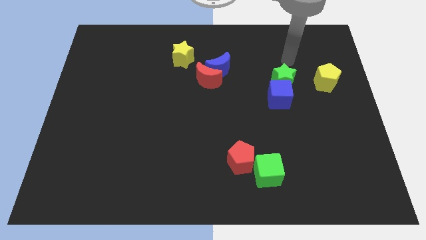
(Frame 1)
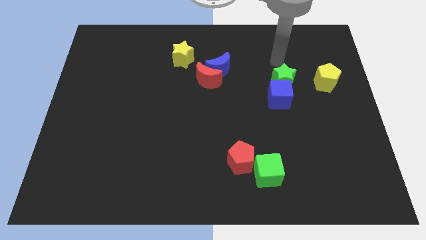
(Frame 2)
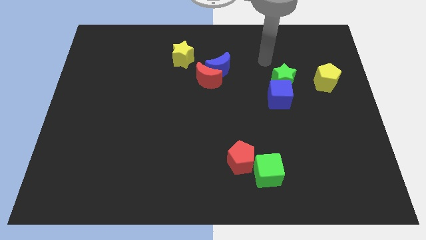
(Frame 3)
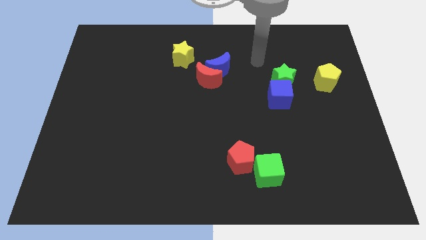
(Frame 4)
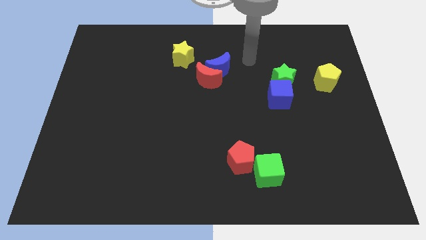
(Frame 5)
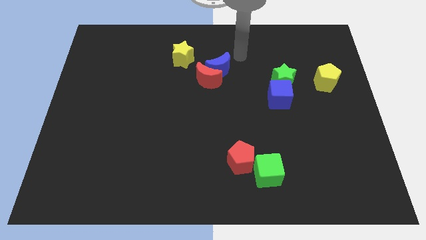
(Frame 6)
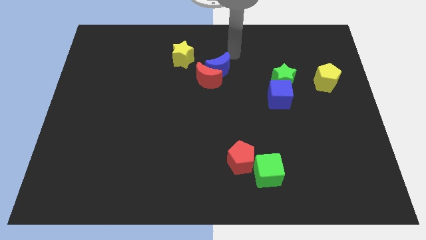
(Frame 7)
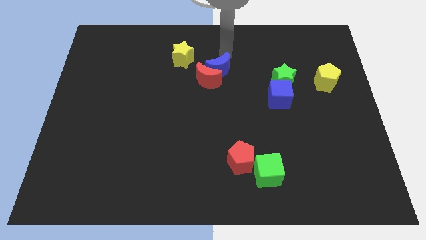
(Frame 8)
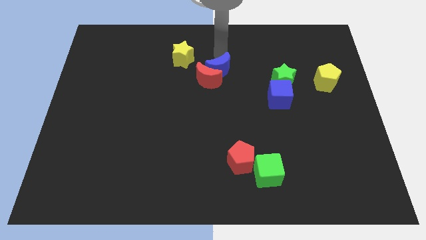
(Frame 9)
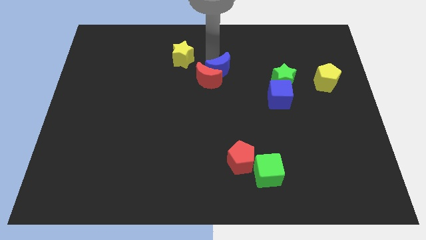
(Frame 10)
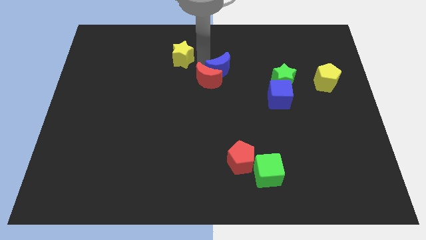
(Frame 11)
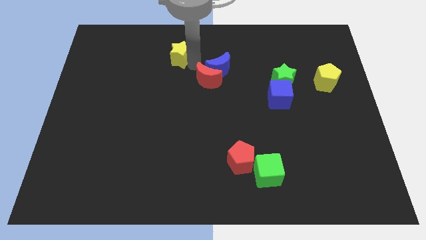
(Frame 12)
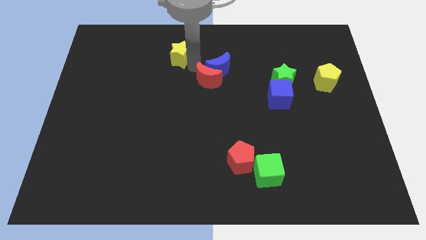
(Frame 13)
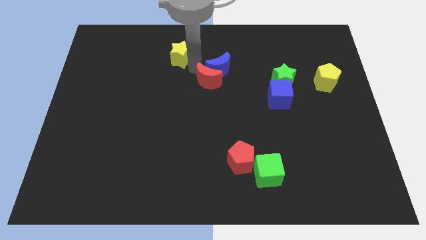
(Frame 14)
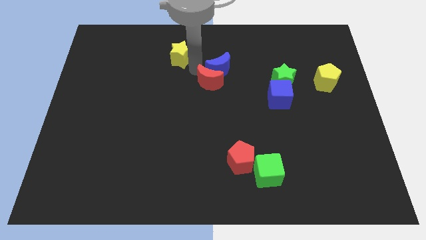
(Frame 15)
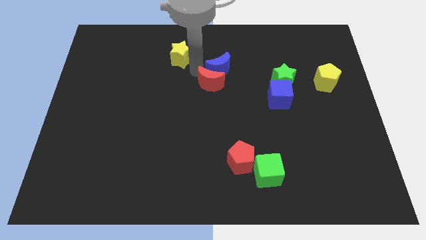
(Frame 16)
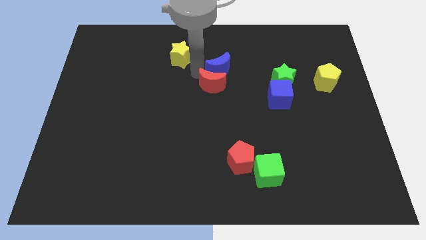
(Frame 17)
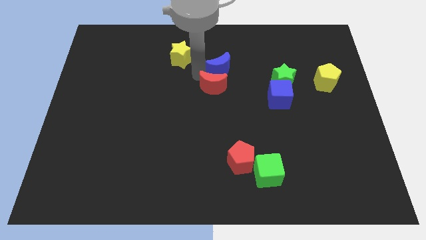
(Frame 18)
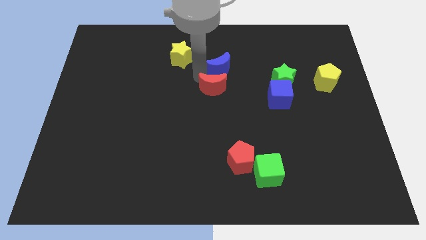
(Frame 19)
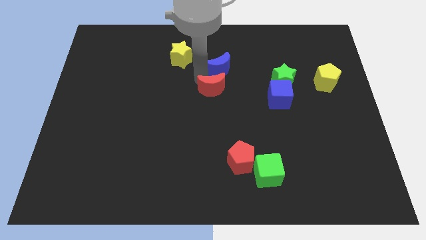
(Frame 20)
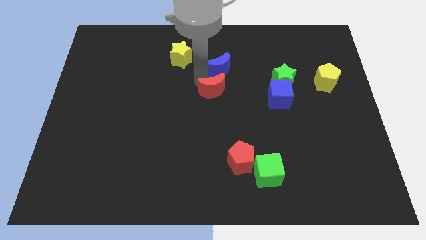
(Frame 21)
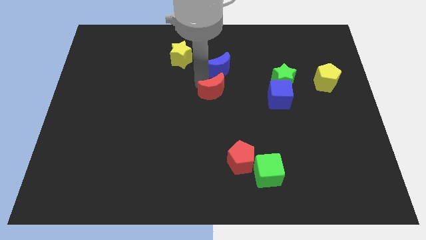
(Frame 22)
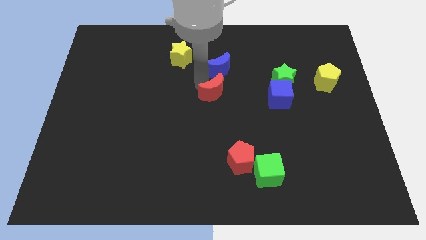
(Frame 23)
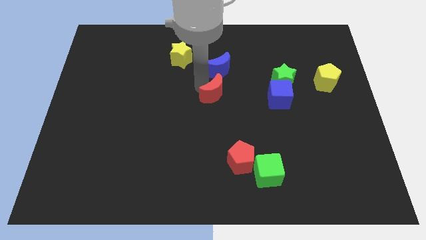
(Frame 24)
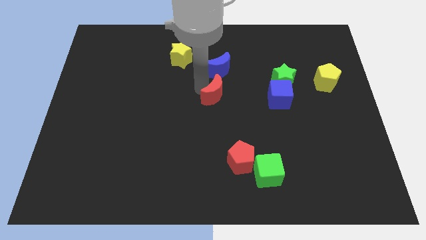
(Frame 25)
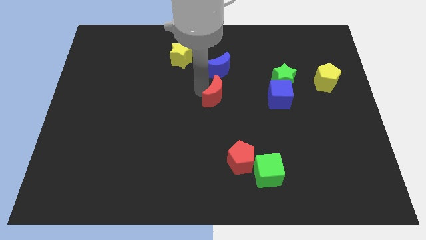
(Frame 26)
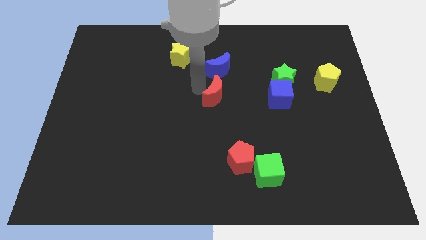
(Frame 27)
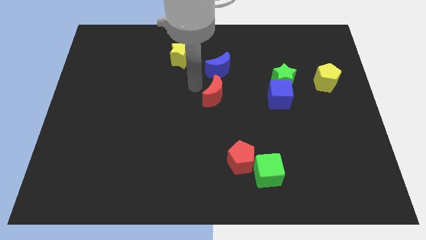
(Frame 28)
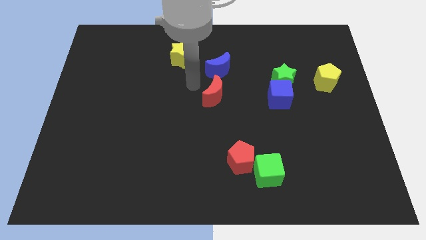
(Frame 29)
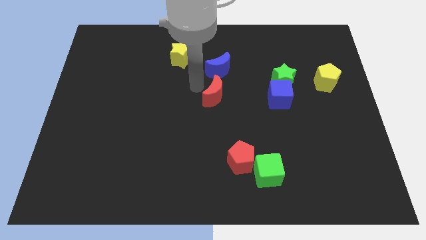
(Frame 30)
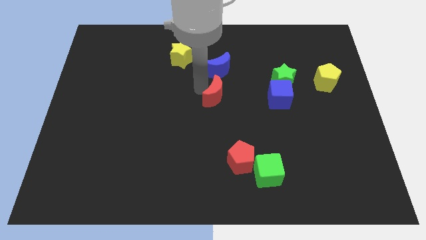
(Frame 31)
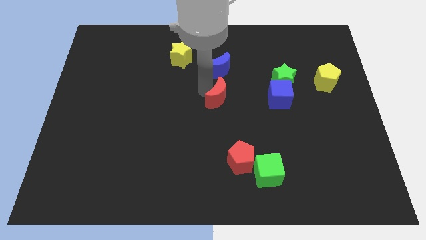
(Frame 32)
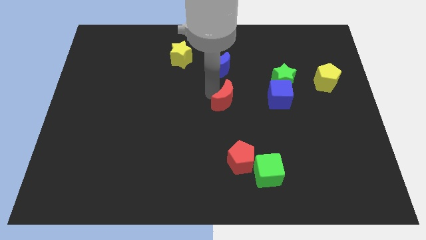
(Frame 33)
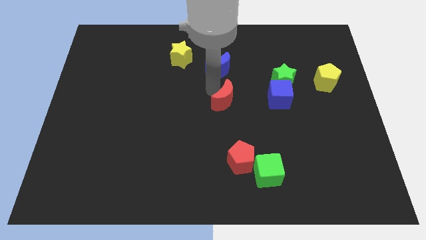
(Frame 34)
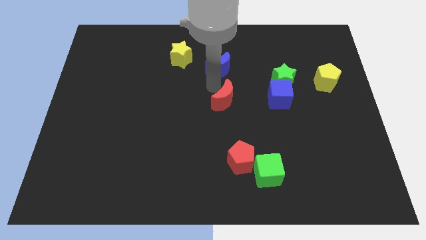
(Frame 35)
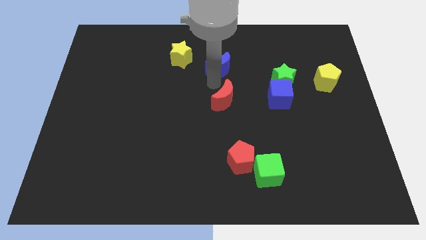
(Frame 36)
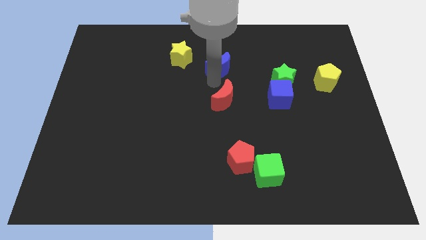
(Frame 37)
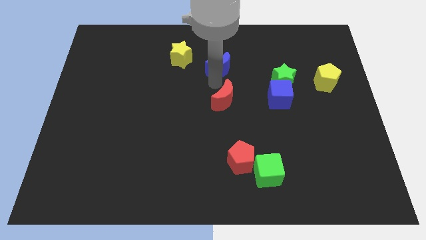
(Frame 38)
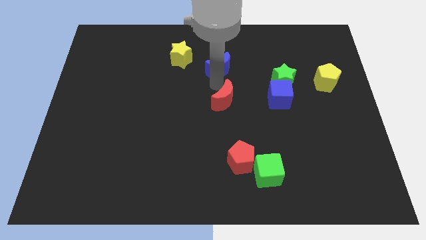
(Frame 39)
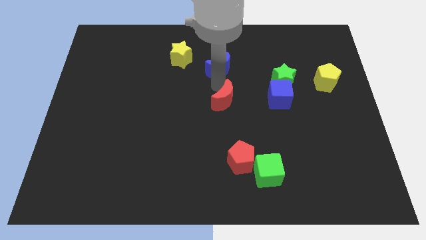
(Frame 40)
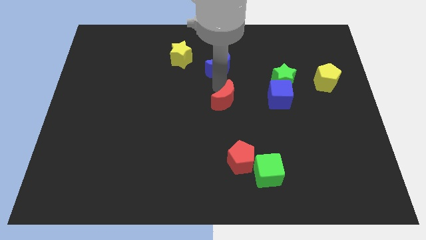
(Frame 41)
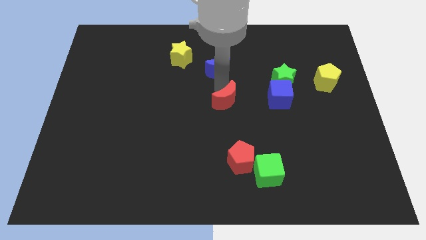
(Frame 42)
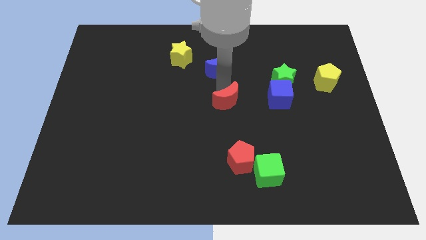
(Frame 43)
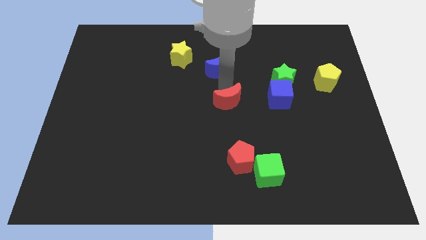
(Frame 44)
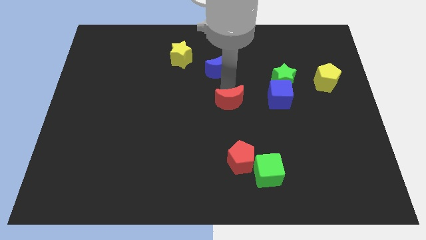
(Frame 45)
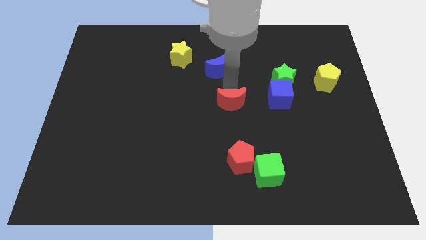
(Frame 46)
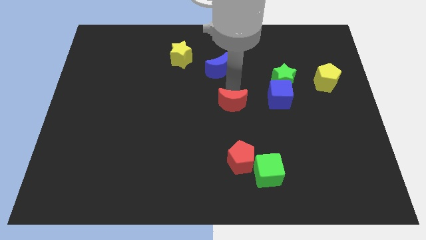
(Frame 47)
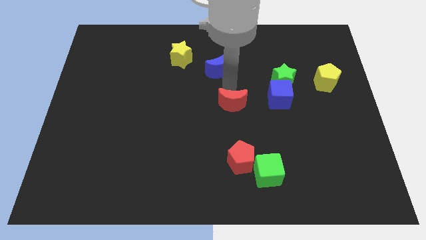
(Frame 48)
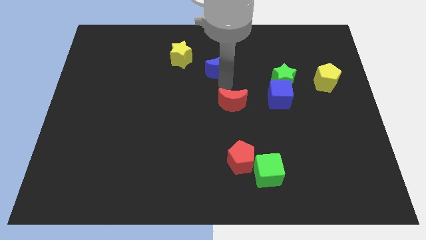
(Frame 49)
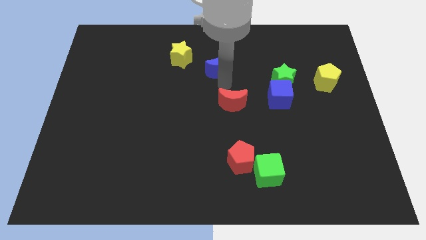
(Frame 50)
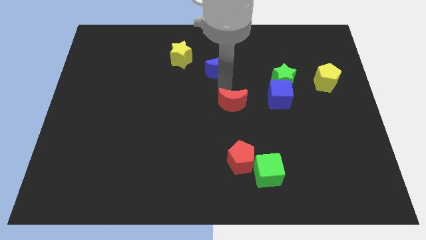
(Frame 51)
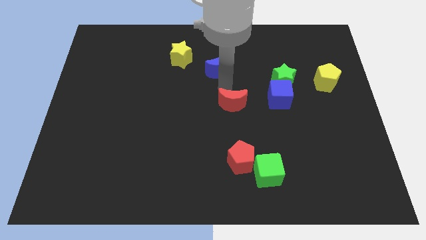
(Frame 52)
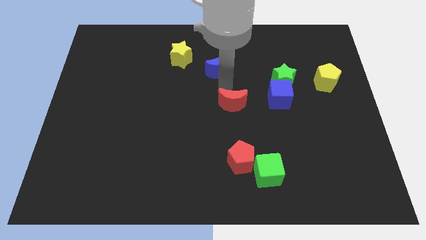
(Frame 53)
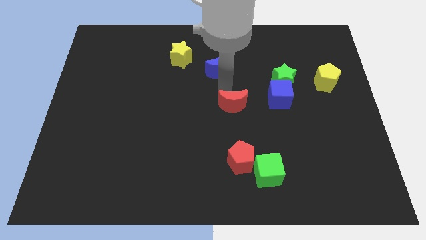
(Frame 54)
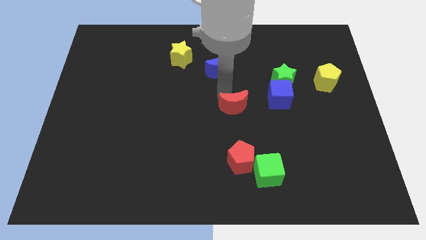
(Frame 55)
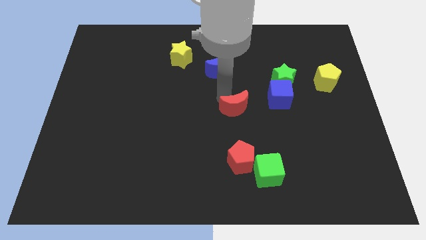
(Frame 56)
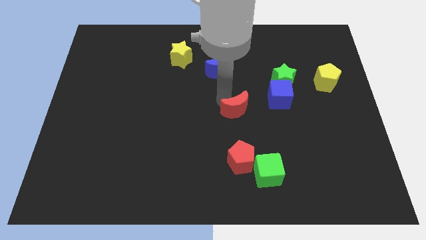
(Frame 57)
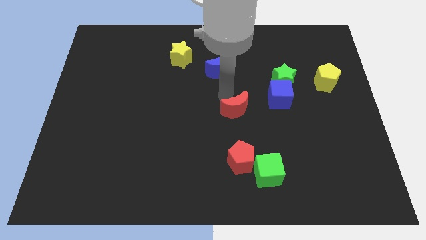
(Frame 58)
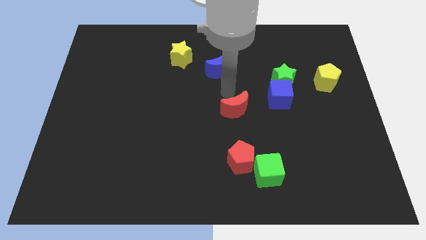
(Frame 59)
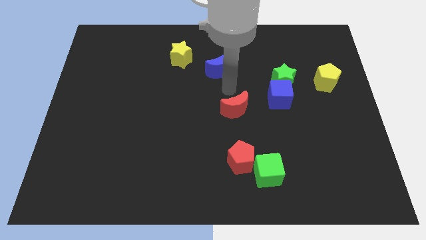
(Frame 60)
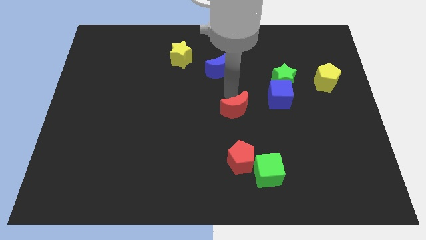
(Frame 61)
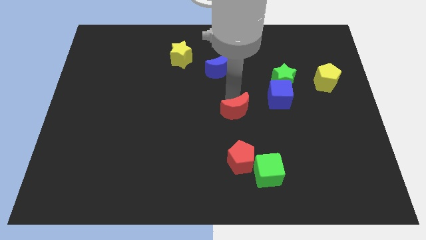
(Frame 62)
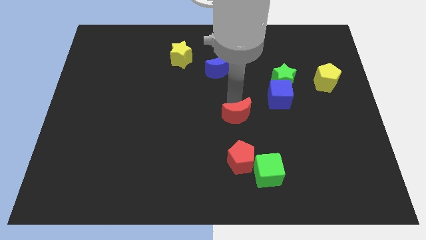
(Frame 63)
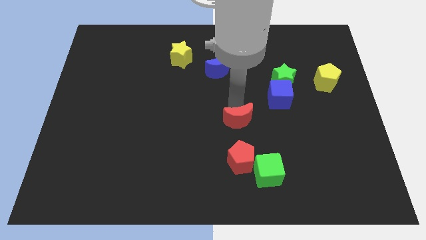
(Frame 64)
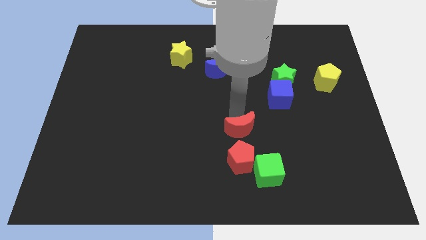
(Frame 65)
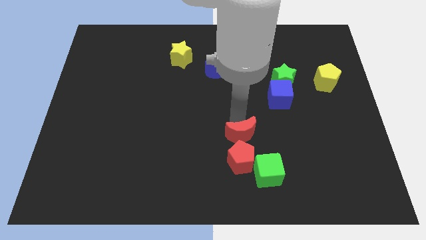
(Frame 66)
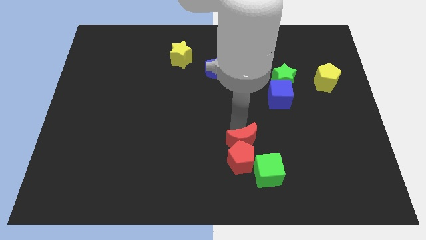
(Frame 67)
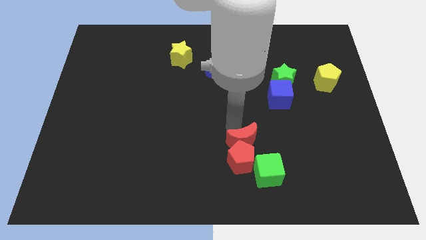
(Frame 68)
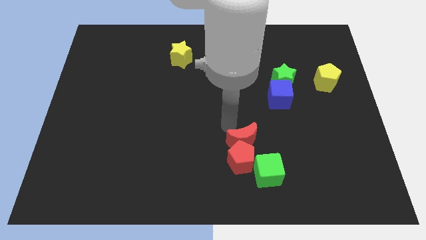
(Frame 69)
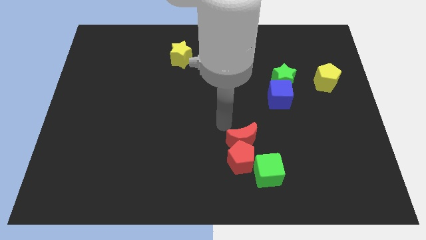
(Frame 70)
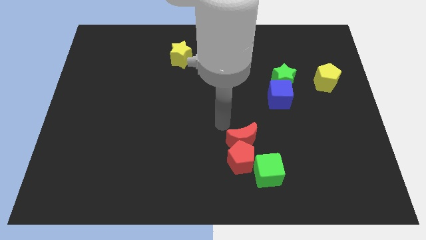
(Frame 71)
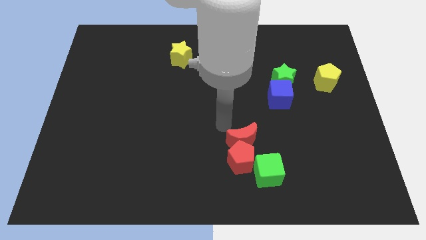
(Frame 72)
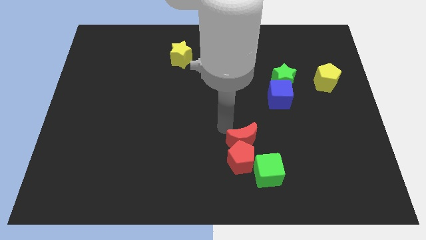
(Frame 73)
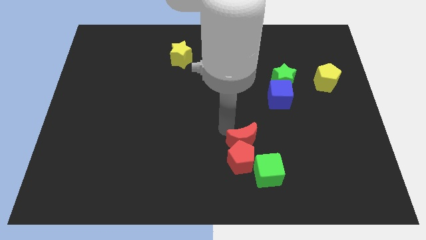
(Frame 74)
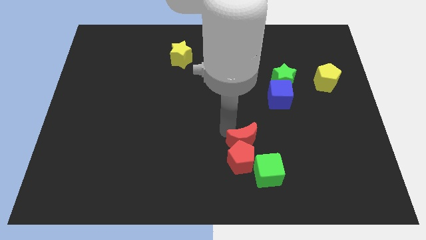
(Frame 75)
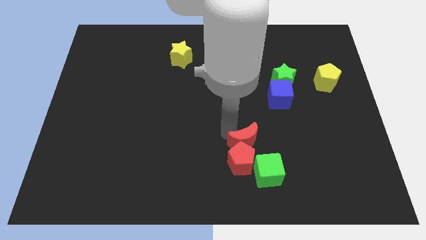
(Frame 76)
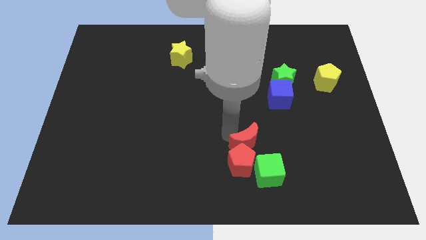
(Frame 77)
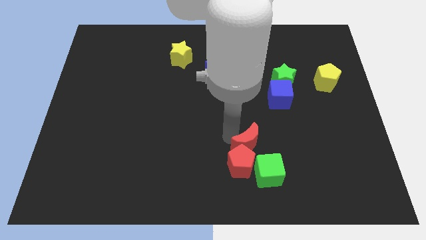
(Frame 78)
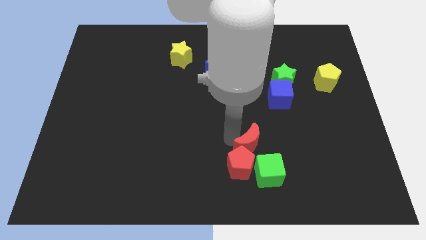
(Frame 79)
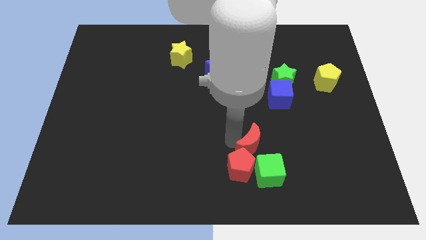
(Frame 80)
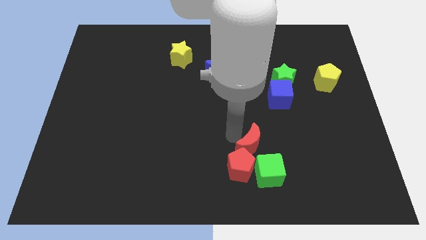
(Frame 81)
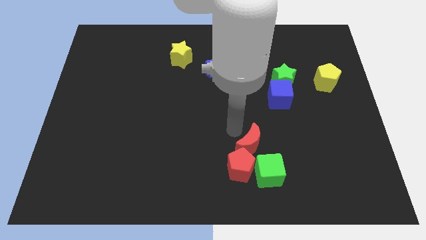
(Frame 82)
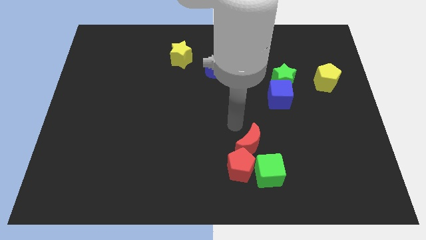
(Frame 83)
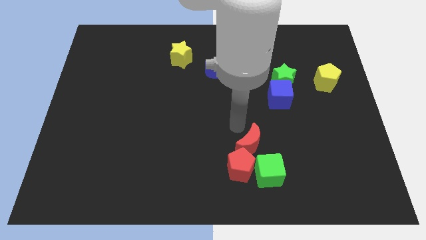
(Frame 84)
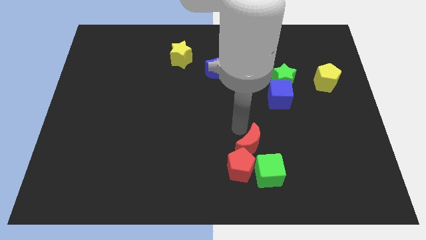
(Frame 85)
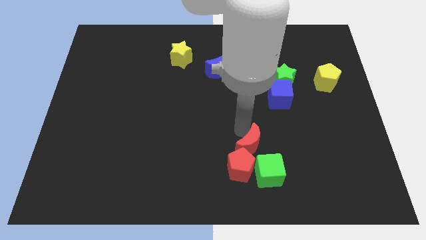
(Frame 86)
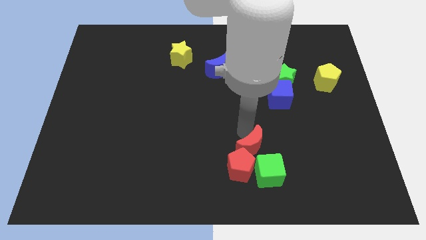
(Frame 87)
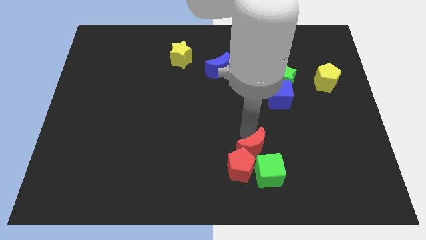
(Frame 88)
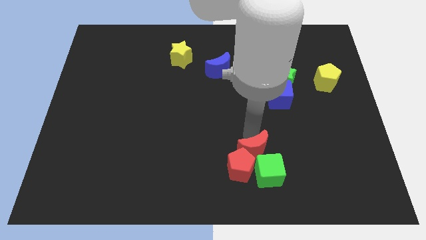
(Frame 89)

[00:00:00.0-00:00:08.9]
put the red moon towards the green cube
